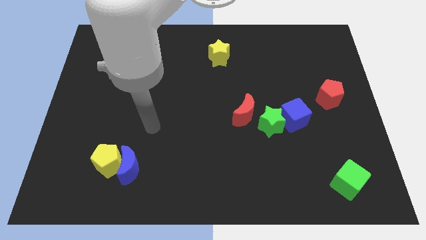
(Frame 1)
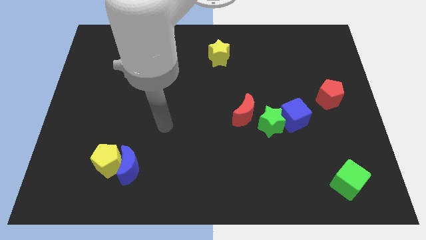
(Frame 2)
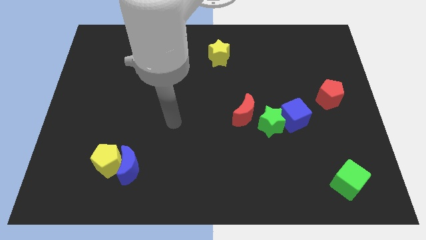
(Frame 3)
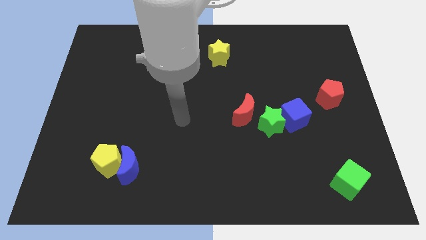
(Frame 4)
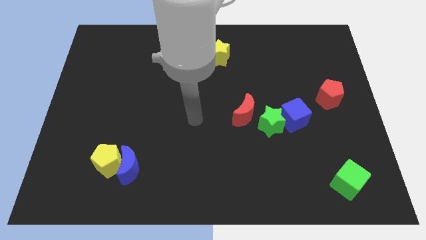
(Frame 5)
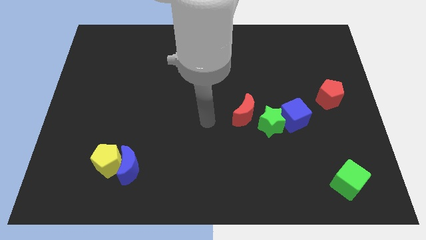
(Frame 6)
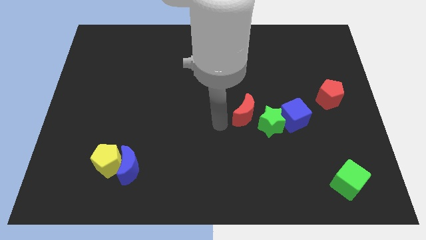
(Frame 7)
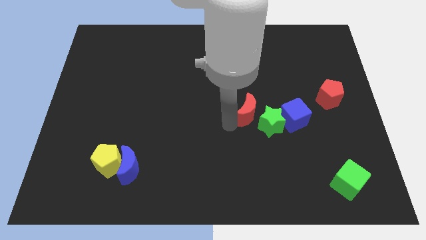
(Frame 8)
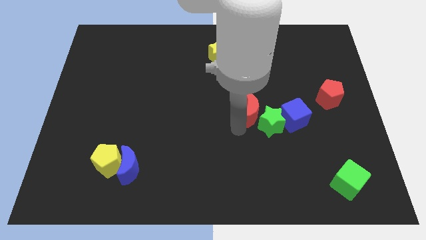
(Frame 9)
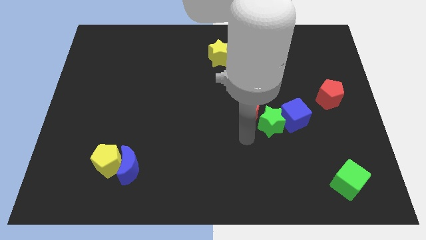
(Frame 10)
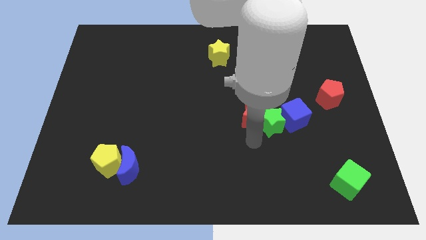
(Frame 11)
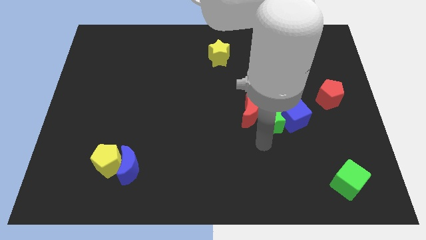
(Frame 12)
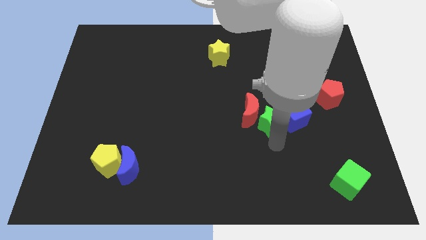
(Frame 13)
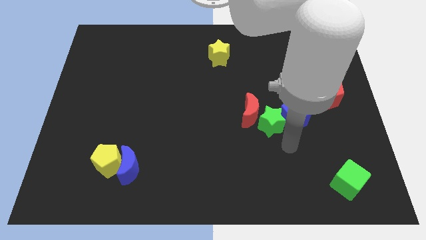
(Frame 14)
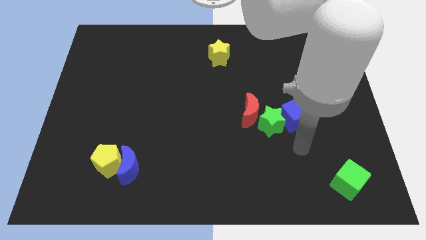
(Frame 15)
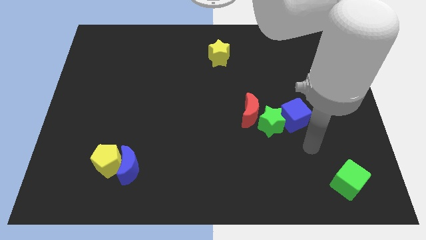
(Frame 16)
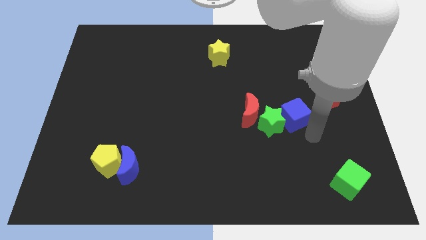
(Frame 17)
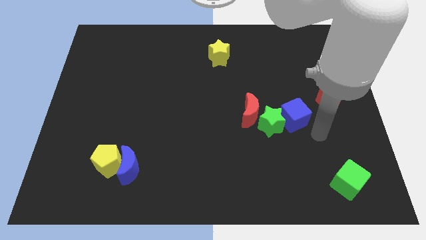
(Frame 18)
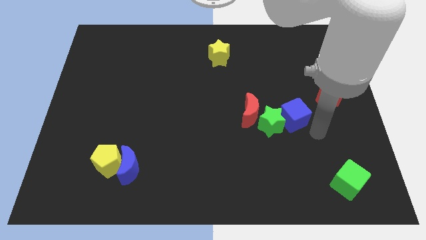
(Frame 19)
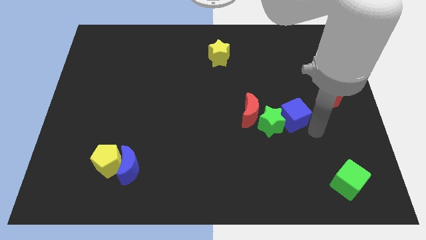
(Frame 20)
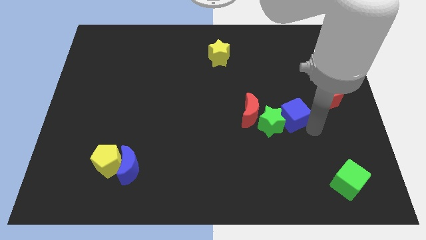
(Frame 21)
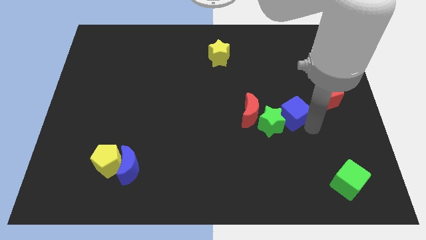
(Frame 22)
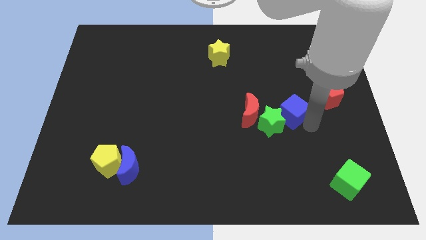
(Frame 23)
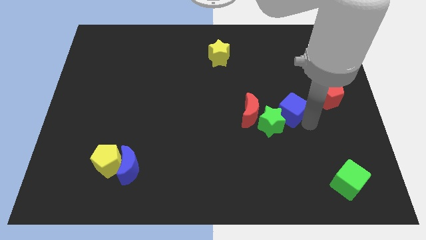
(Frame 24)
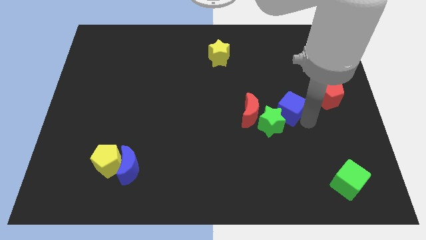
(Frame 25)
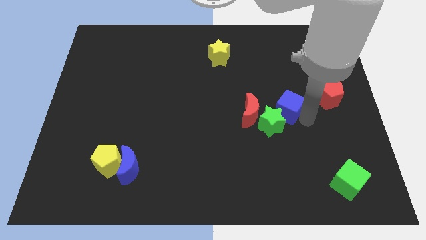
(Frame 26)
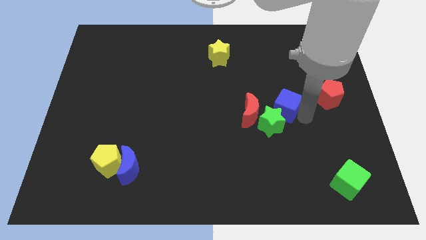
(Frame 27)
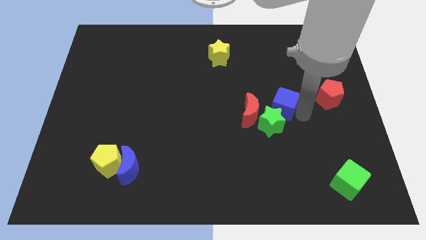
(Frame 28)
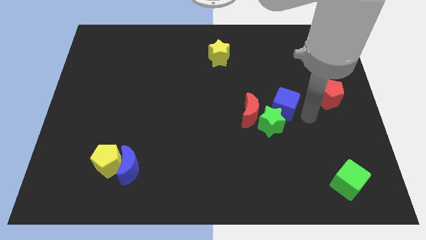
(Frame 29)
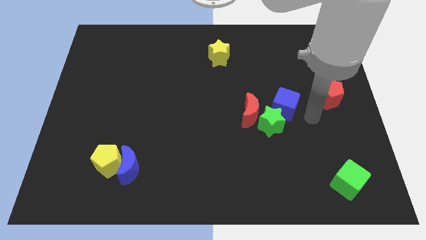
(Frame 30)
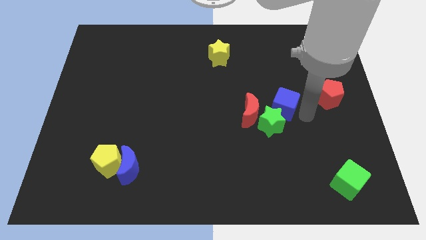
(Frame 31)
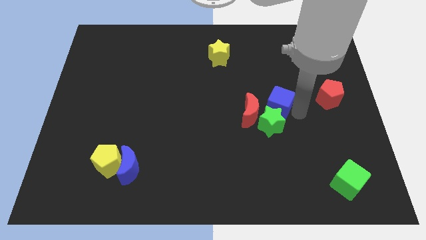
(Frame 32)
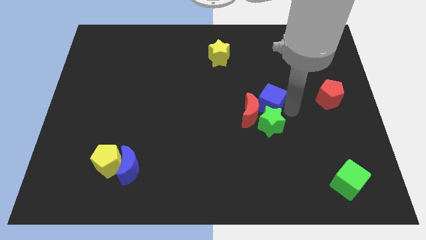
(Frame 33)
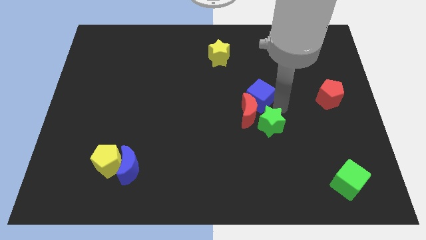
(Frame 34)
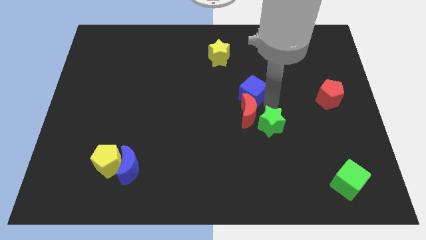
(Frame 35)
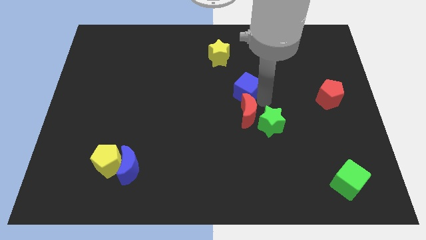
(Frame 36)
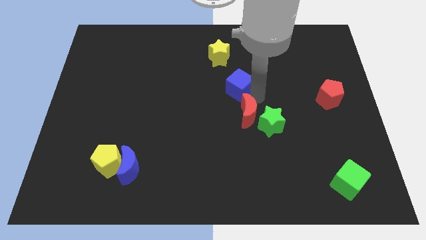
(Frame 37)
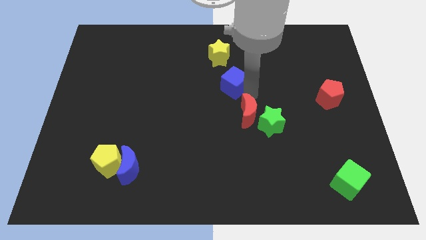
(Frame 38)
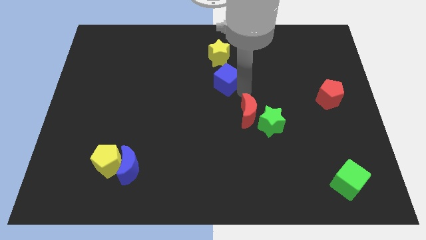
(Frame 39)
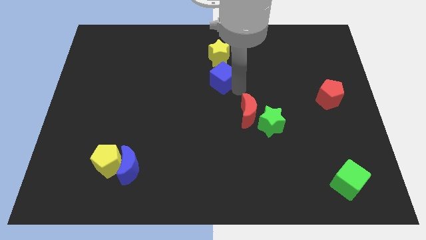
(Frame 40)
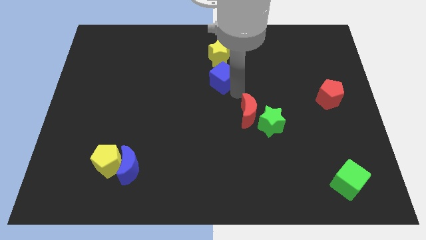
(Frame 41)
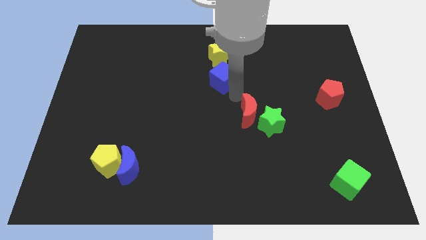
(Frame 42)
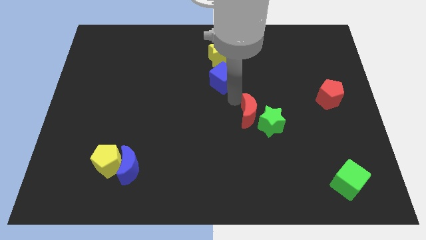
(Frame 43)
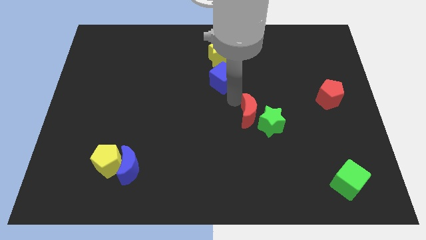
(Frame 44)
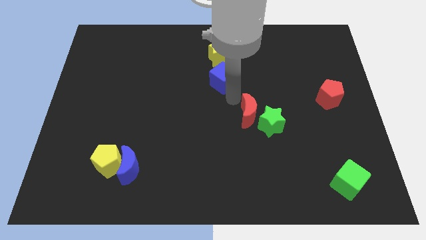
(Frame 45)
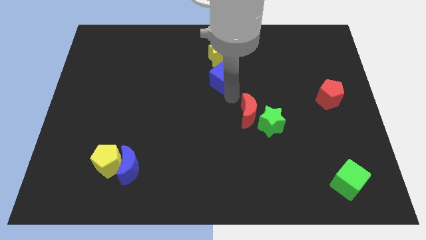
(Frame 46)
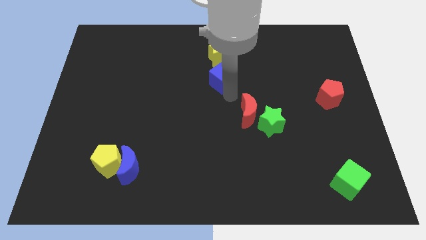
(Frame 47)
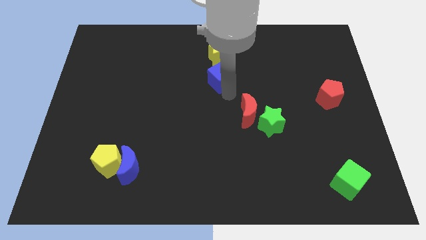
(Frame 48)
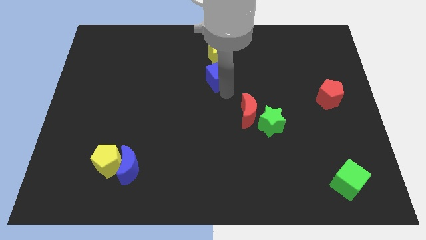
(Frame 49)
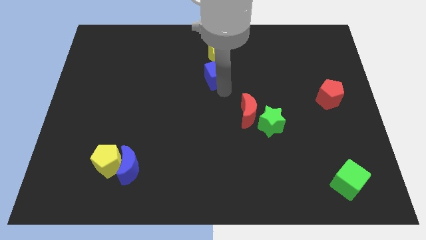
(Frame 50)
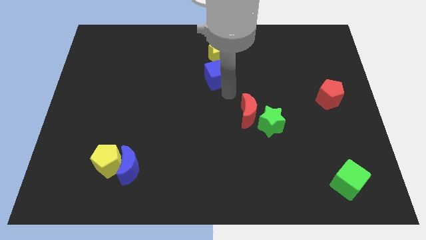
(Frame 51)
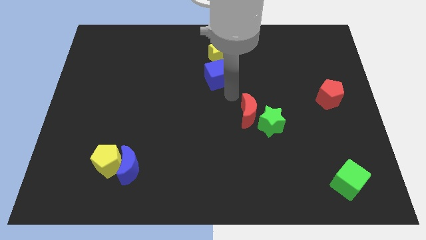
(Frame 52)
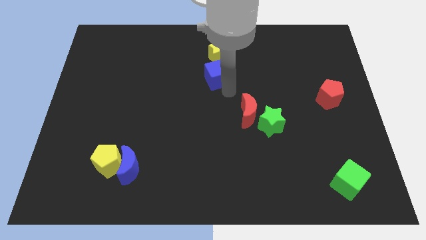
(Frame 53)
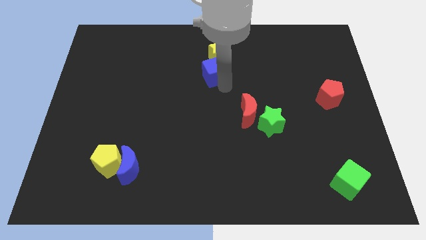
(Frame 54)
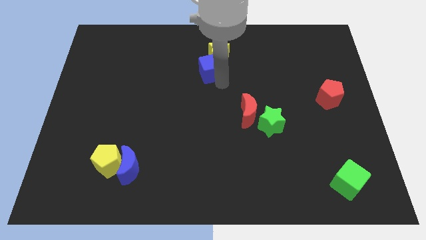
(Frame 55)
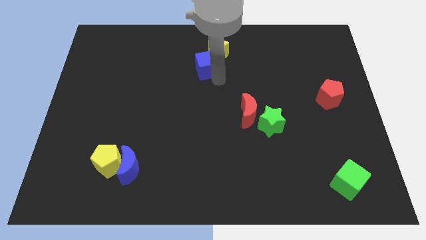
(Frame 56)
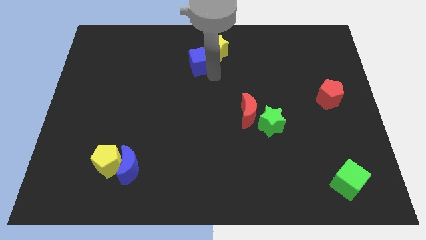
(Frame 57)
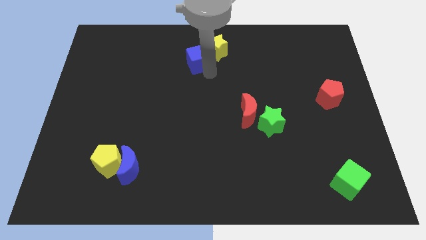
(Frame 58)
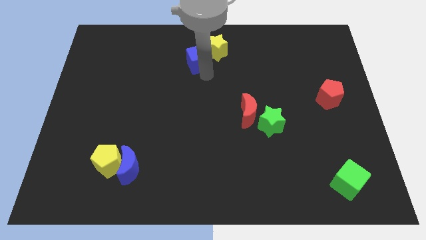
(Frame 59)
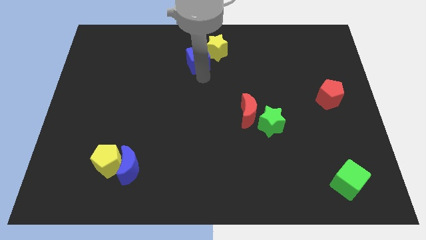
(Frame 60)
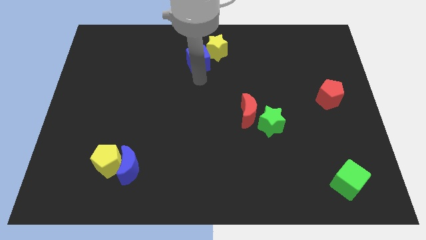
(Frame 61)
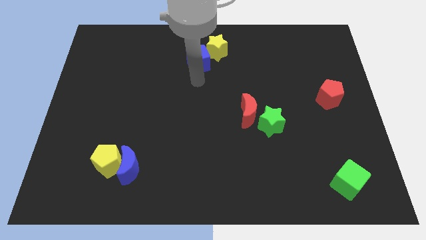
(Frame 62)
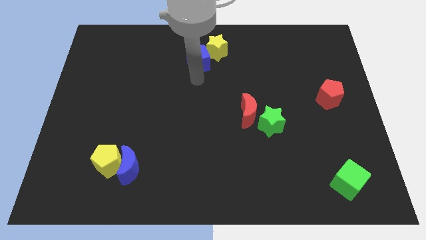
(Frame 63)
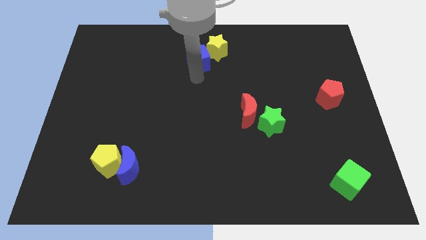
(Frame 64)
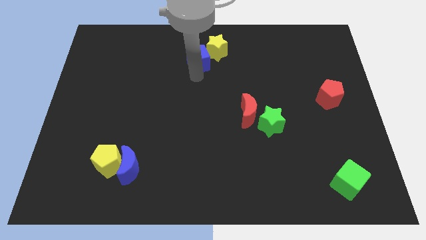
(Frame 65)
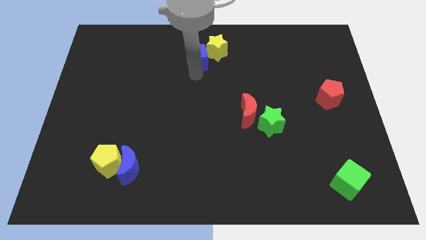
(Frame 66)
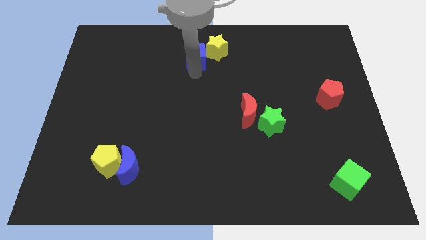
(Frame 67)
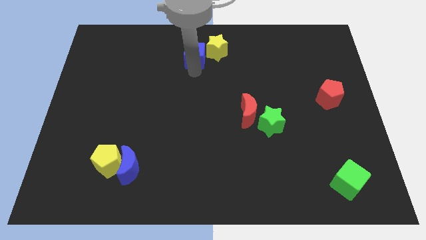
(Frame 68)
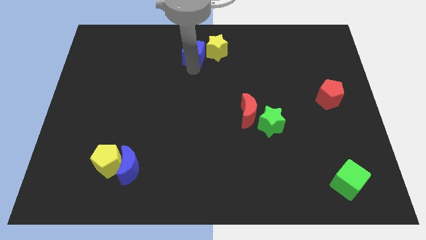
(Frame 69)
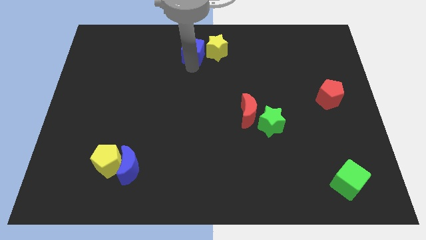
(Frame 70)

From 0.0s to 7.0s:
put the blue cube to the top side
